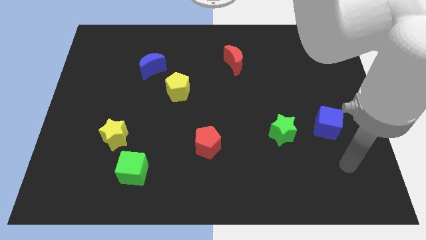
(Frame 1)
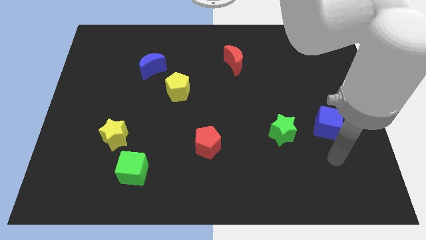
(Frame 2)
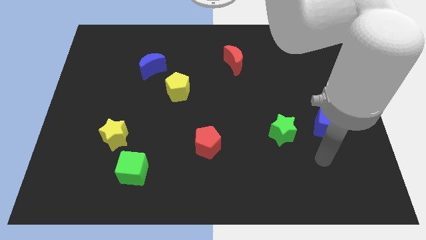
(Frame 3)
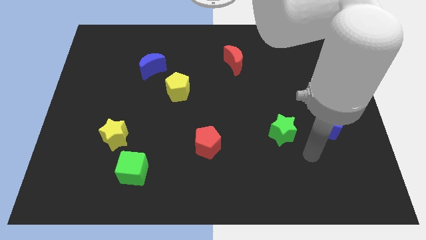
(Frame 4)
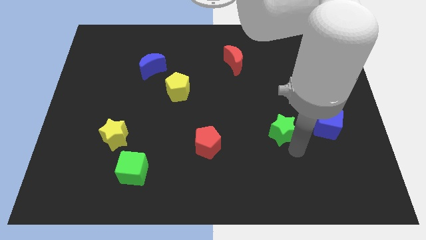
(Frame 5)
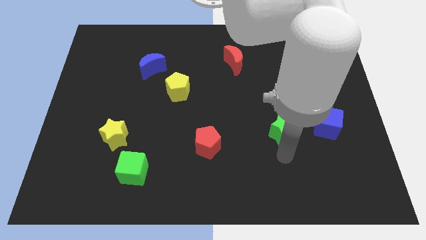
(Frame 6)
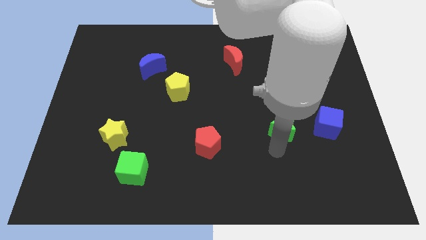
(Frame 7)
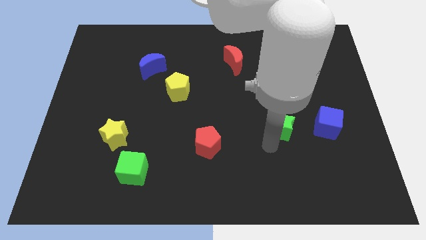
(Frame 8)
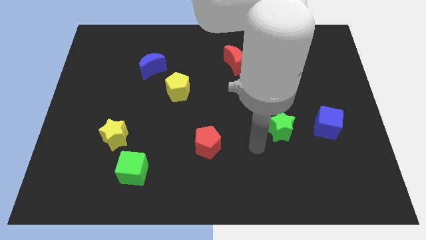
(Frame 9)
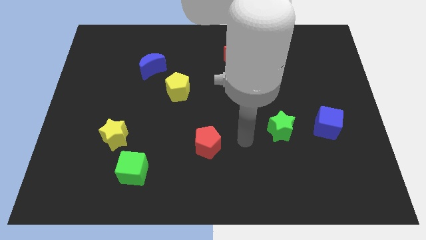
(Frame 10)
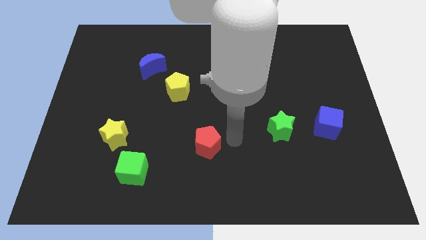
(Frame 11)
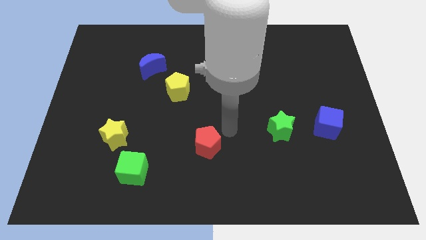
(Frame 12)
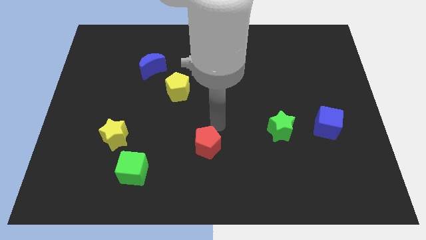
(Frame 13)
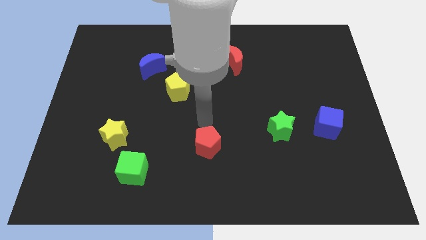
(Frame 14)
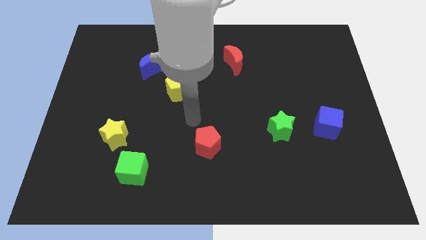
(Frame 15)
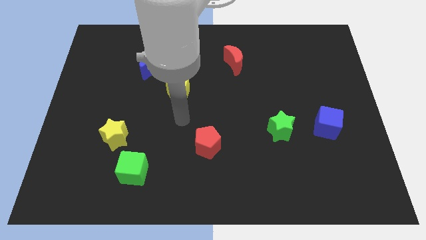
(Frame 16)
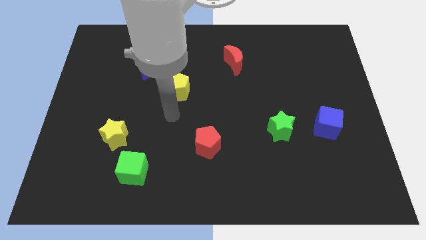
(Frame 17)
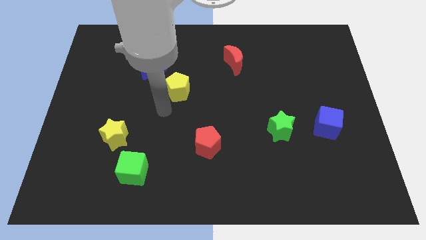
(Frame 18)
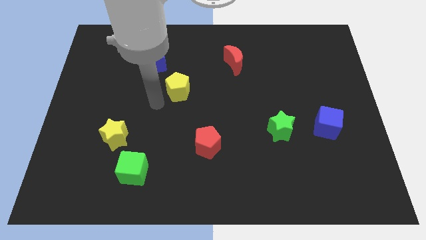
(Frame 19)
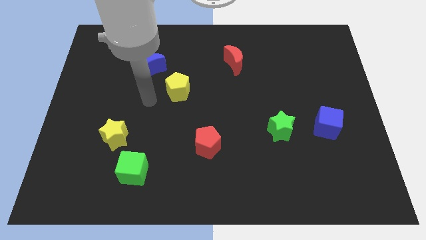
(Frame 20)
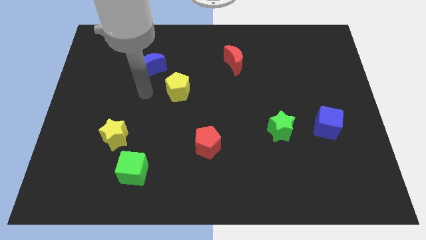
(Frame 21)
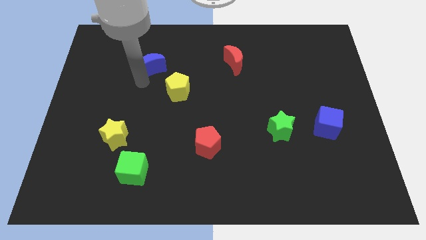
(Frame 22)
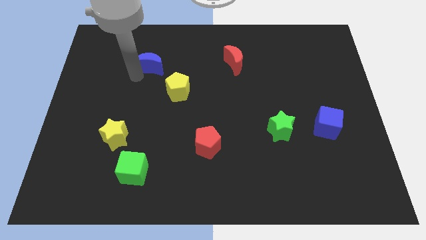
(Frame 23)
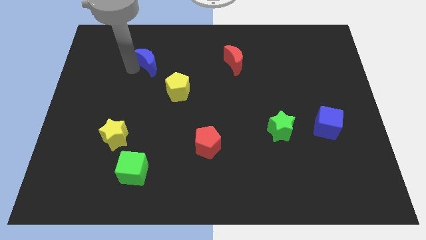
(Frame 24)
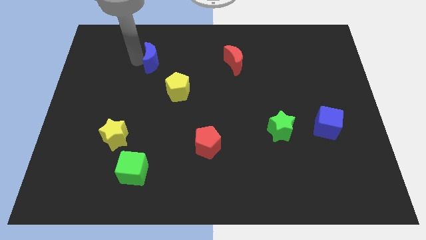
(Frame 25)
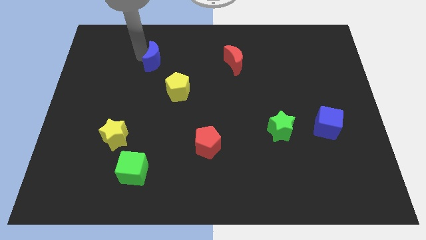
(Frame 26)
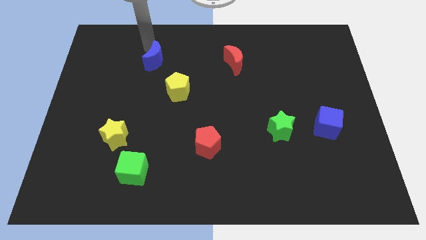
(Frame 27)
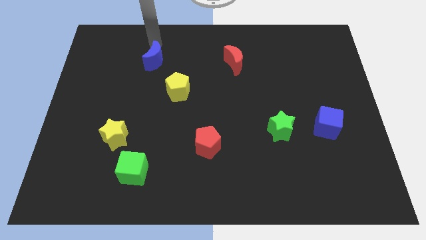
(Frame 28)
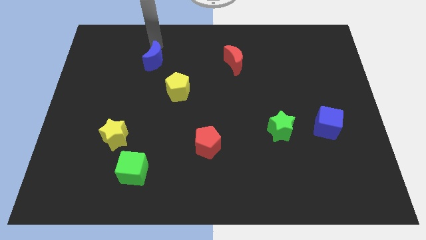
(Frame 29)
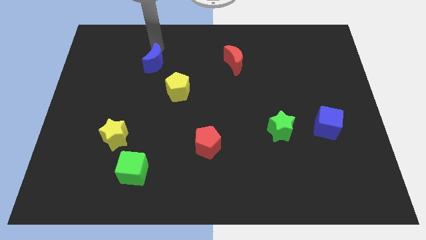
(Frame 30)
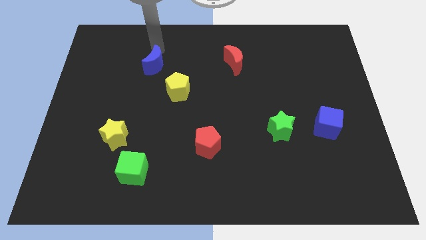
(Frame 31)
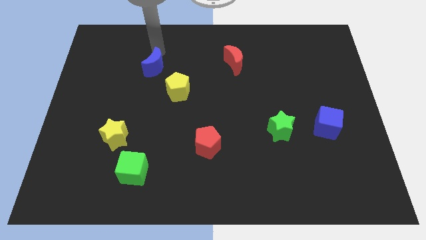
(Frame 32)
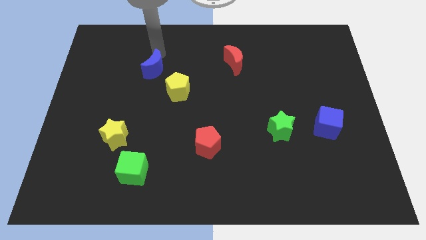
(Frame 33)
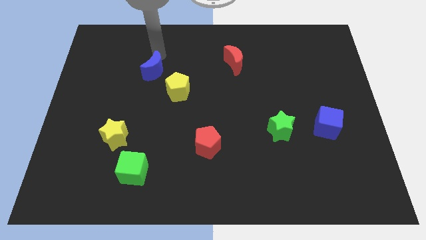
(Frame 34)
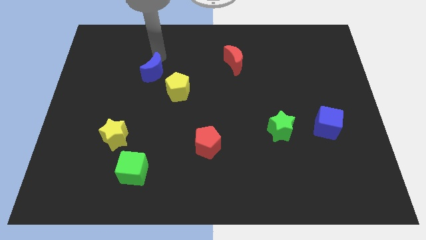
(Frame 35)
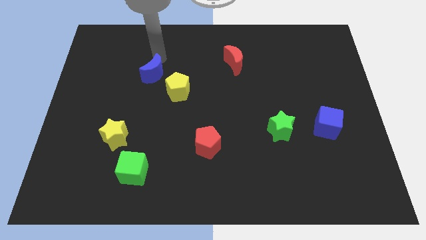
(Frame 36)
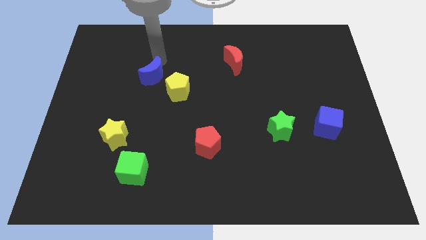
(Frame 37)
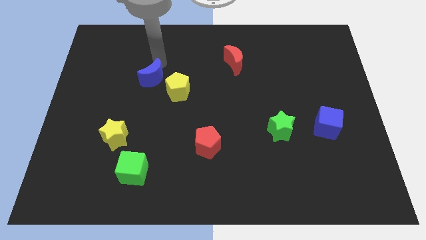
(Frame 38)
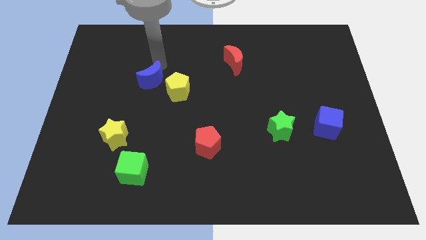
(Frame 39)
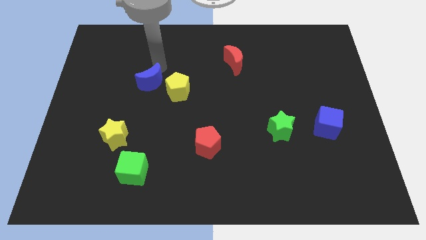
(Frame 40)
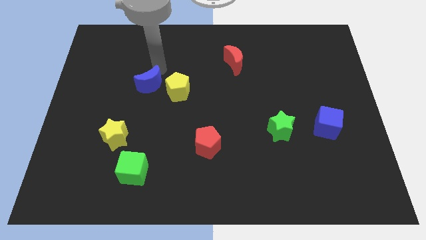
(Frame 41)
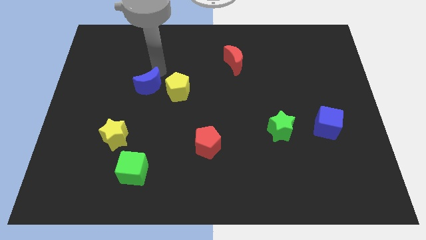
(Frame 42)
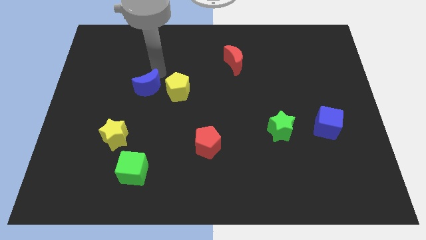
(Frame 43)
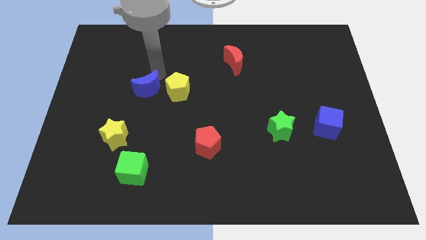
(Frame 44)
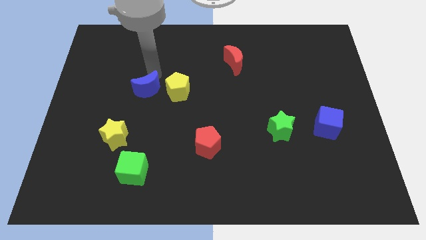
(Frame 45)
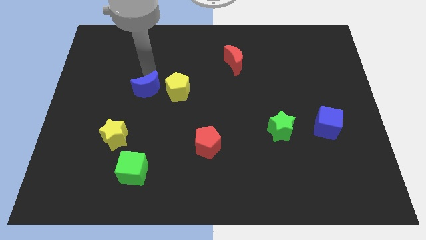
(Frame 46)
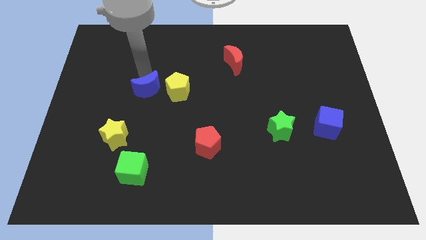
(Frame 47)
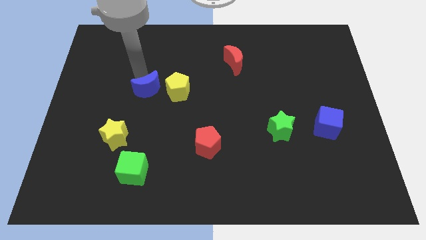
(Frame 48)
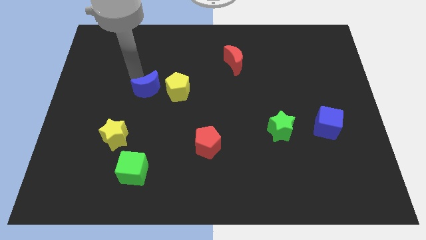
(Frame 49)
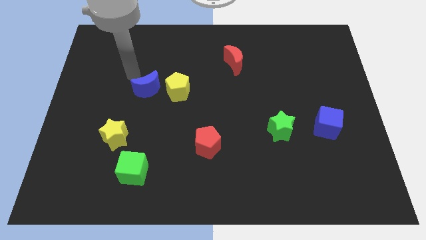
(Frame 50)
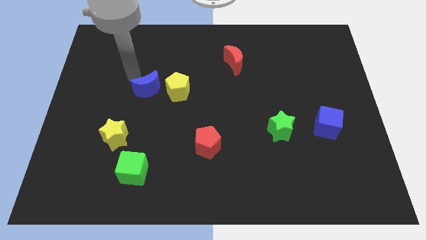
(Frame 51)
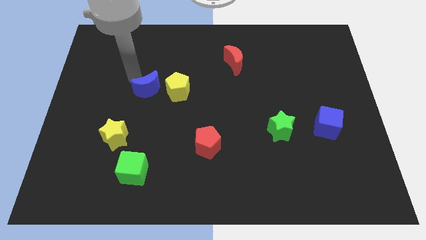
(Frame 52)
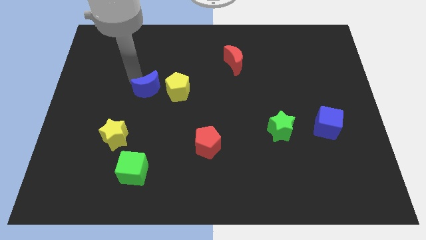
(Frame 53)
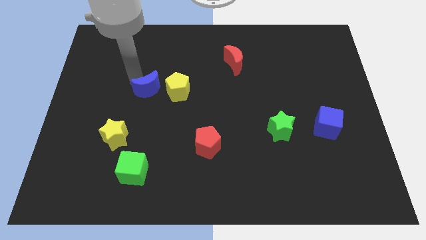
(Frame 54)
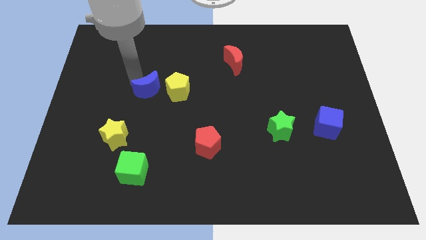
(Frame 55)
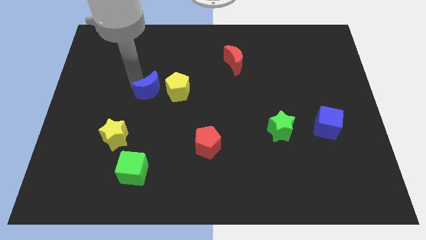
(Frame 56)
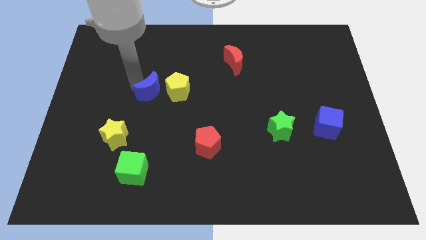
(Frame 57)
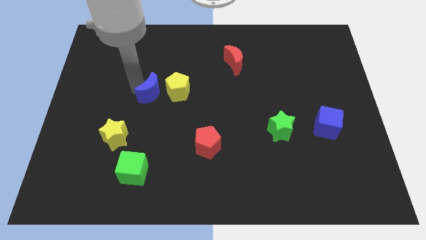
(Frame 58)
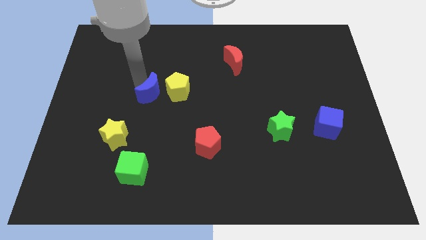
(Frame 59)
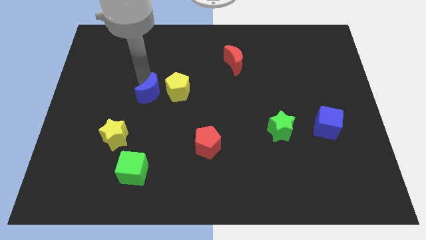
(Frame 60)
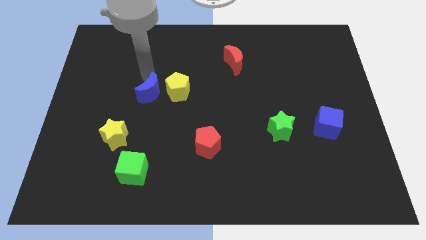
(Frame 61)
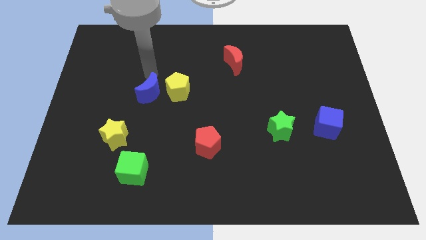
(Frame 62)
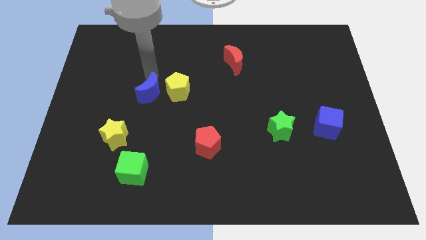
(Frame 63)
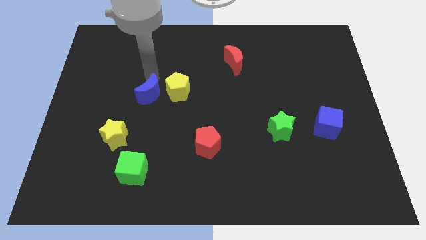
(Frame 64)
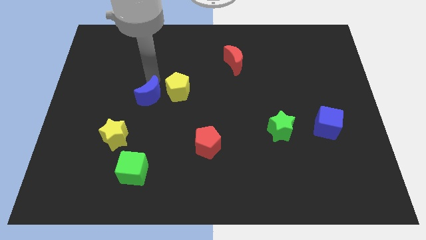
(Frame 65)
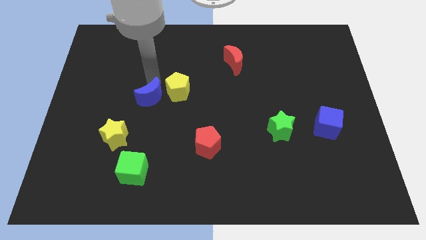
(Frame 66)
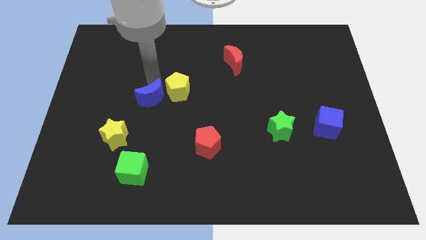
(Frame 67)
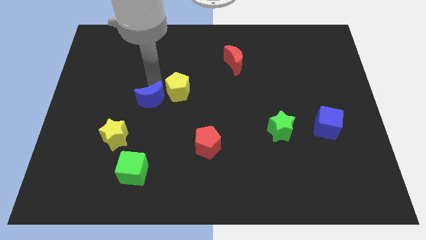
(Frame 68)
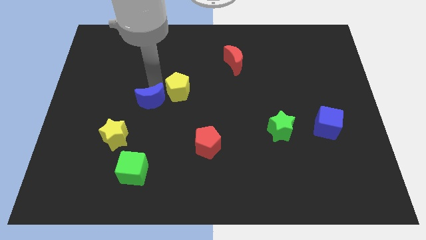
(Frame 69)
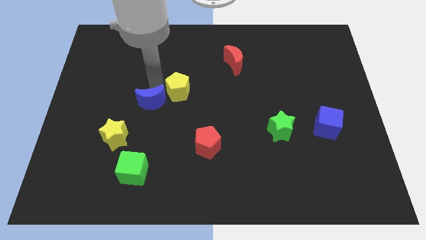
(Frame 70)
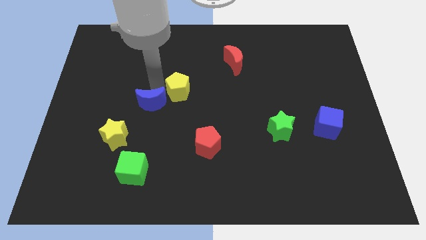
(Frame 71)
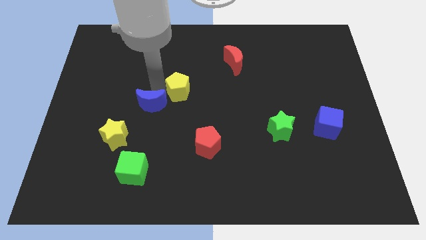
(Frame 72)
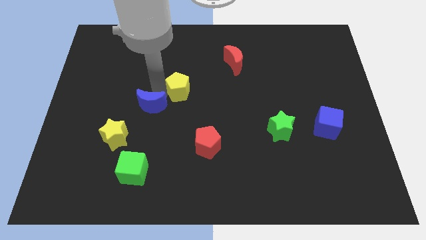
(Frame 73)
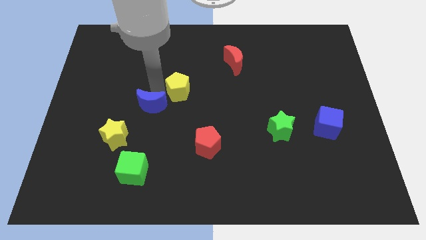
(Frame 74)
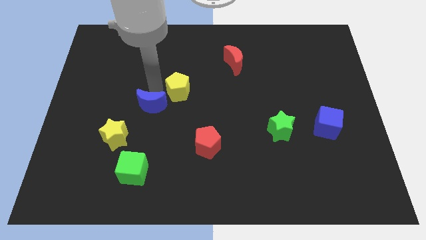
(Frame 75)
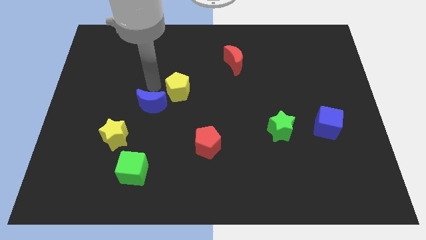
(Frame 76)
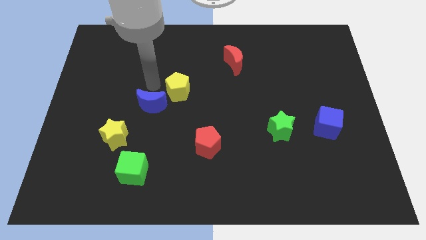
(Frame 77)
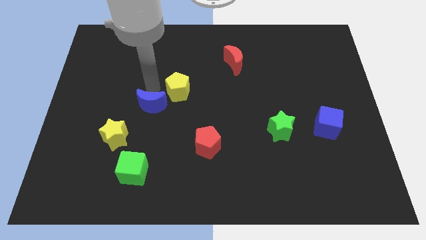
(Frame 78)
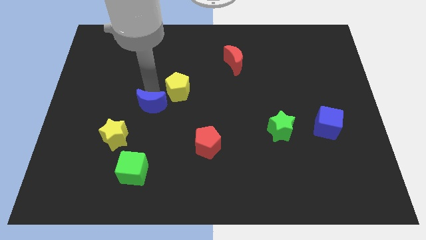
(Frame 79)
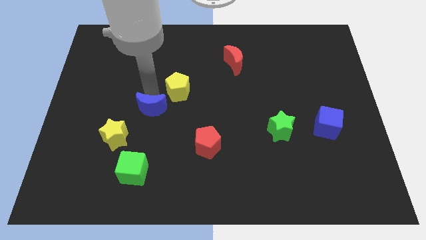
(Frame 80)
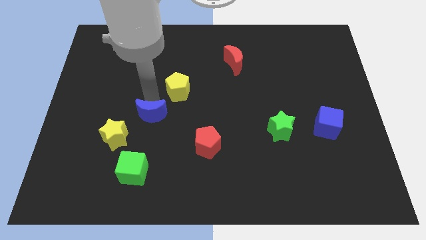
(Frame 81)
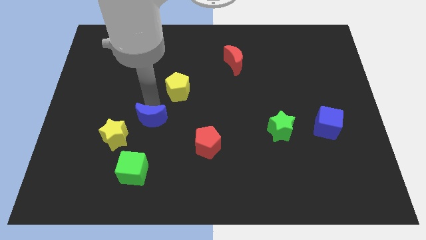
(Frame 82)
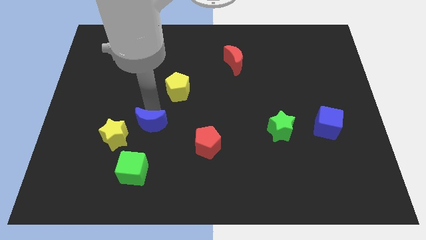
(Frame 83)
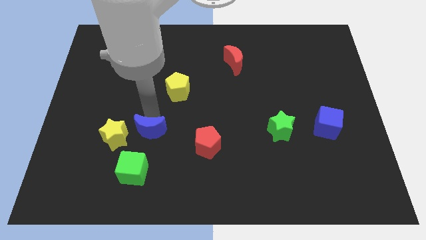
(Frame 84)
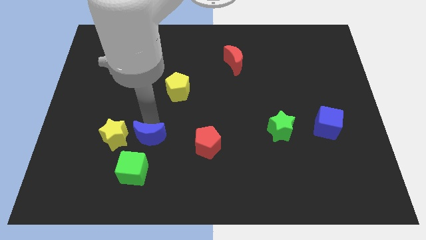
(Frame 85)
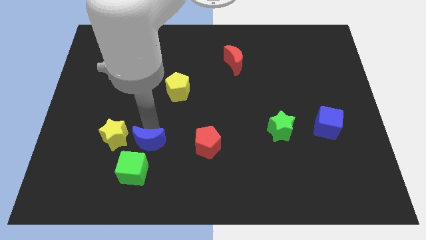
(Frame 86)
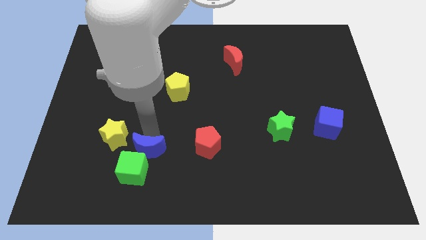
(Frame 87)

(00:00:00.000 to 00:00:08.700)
put the blue moon close to the green cube
